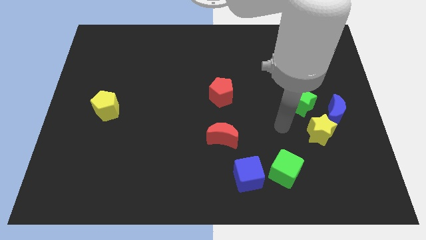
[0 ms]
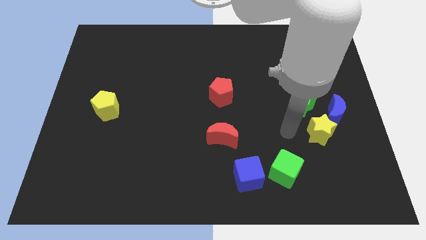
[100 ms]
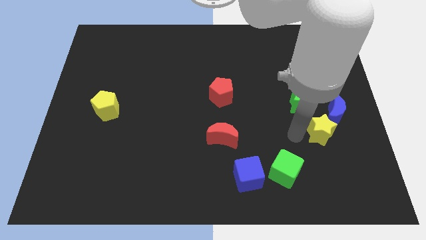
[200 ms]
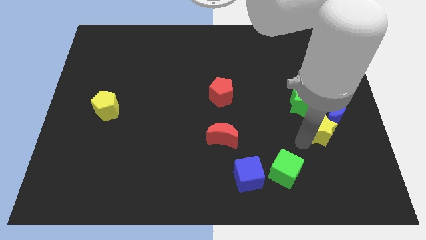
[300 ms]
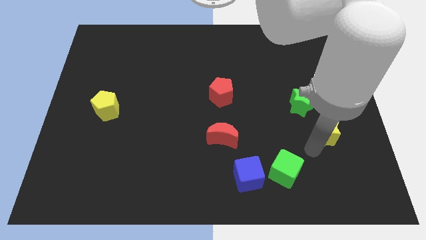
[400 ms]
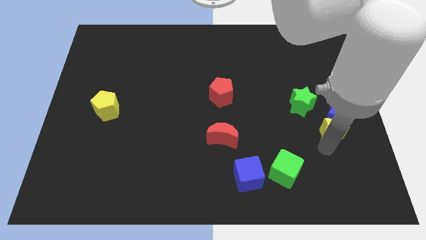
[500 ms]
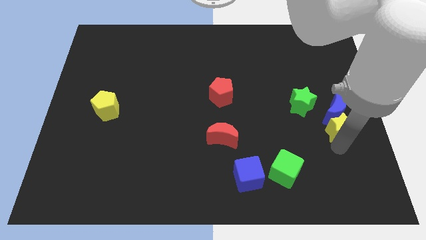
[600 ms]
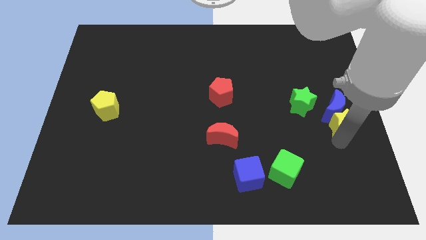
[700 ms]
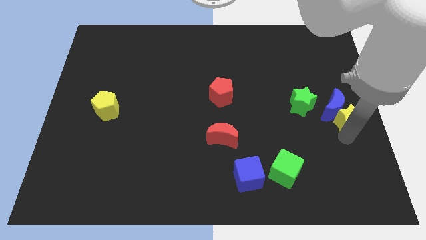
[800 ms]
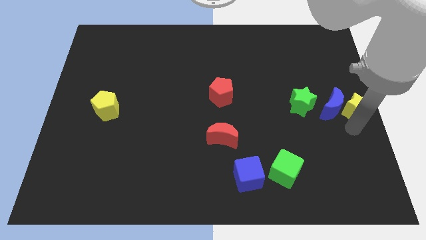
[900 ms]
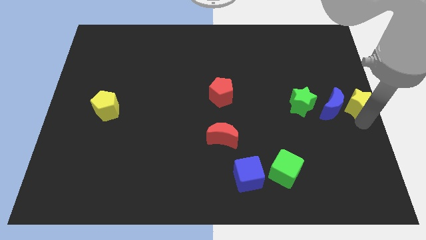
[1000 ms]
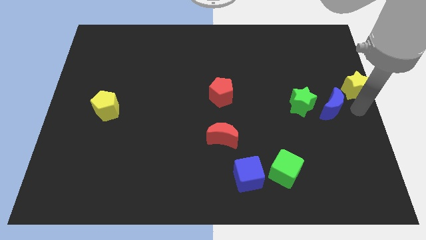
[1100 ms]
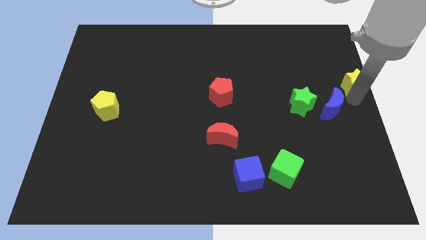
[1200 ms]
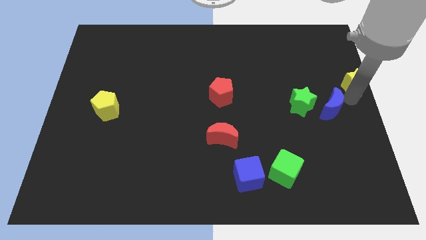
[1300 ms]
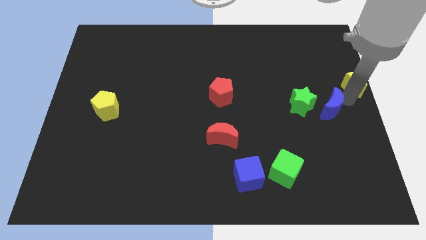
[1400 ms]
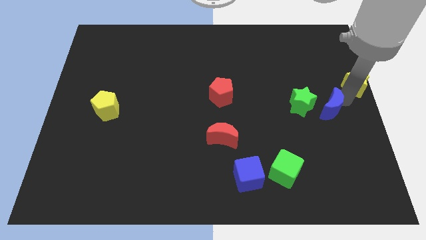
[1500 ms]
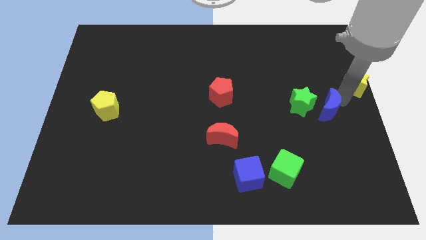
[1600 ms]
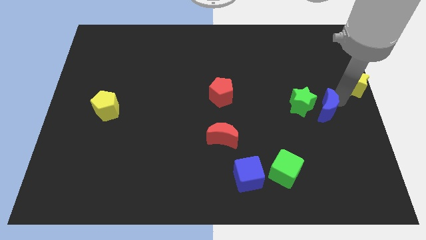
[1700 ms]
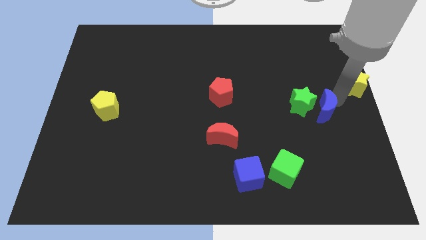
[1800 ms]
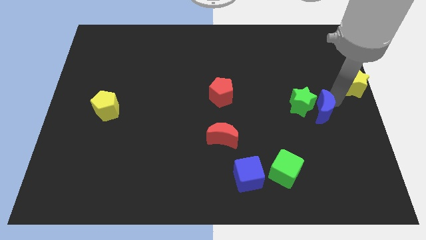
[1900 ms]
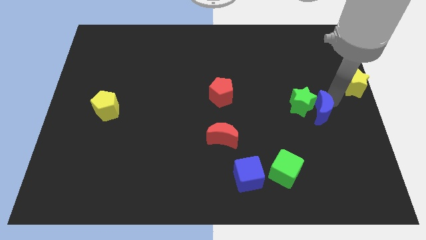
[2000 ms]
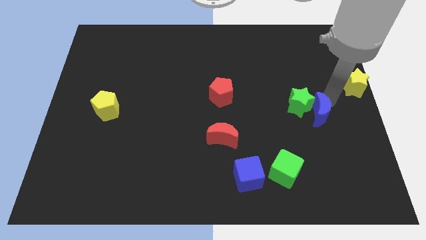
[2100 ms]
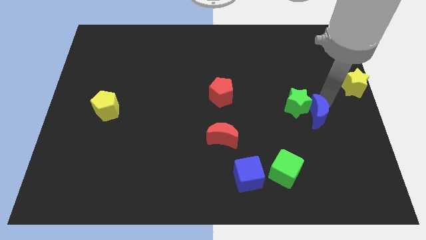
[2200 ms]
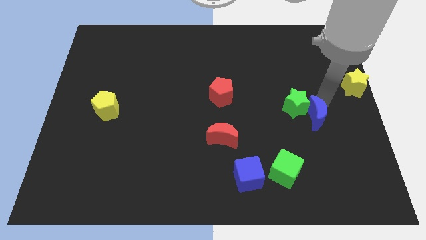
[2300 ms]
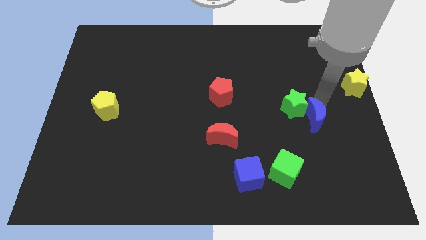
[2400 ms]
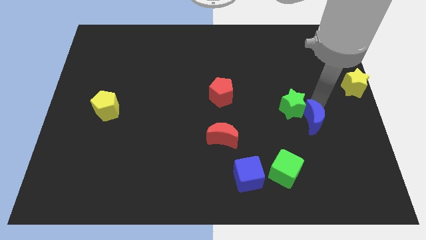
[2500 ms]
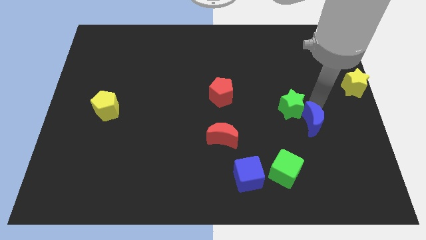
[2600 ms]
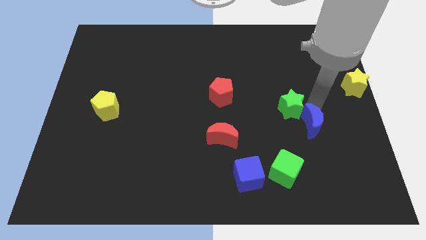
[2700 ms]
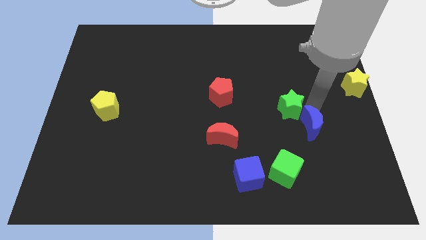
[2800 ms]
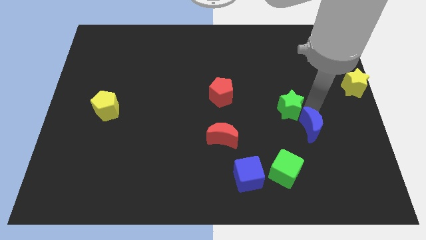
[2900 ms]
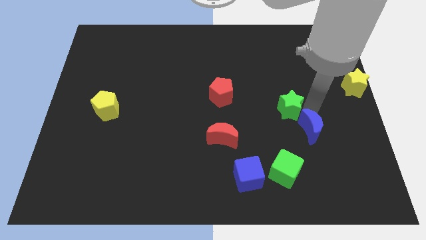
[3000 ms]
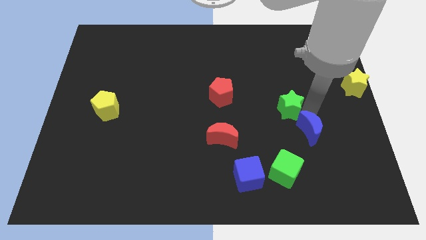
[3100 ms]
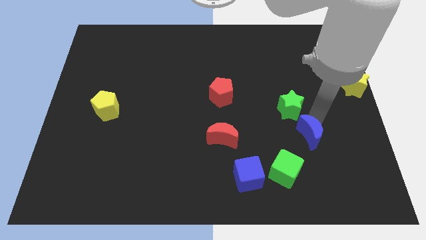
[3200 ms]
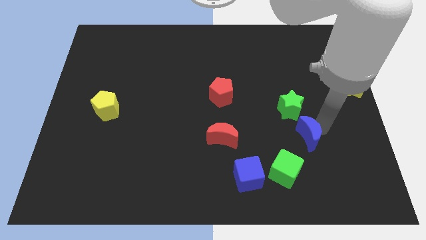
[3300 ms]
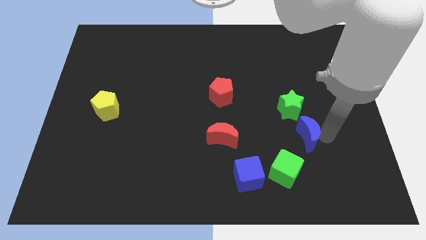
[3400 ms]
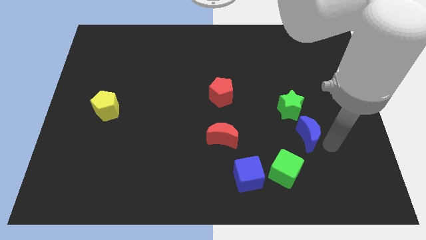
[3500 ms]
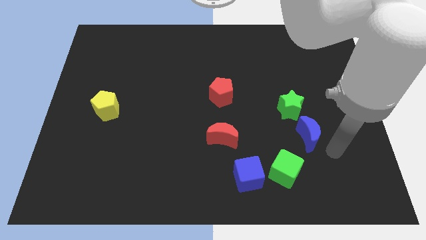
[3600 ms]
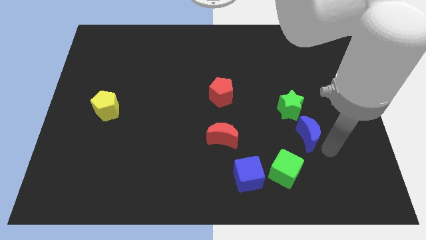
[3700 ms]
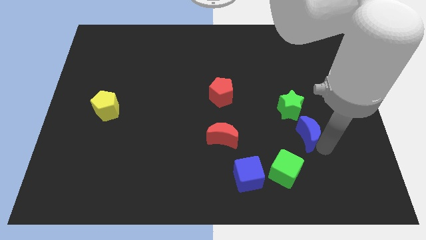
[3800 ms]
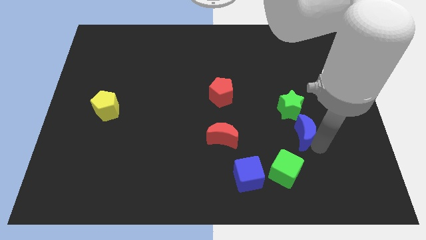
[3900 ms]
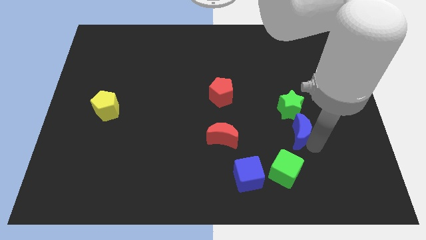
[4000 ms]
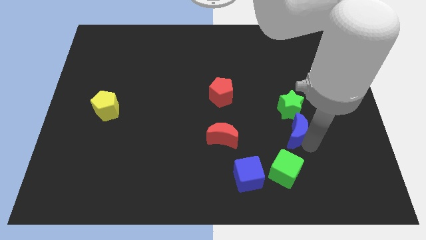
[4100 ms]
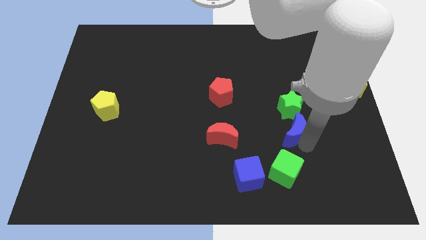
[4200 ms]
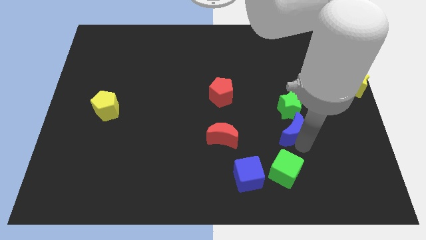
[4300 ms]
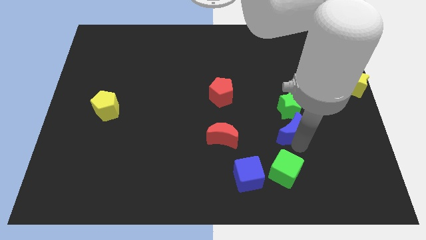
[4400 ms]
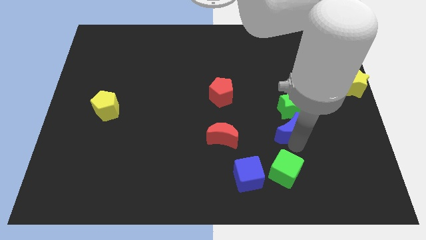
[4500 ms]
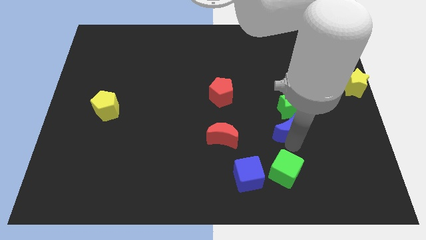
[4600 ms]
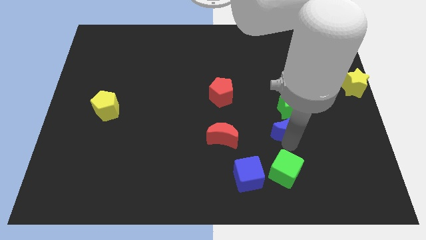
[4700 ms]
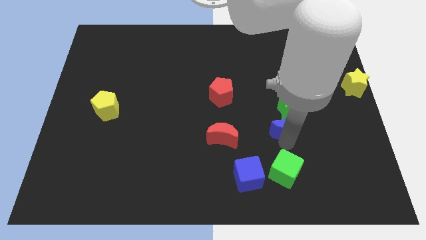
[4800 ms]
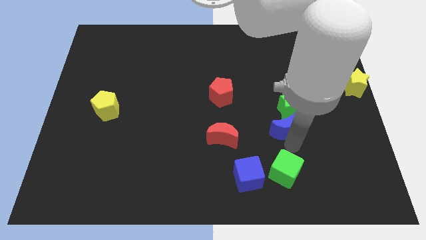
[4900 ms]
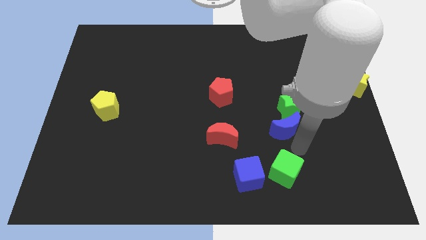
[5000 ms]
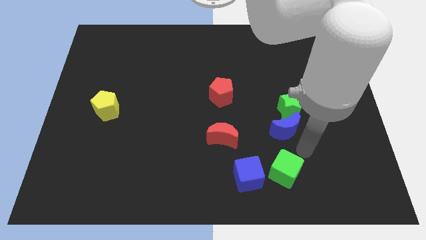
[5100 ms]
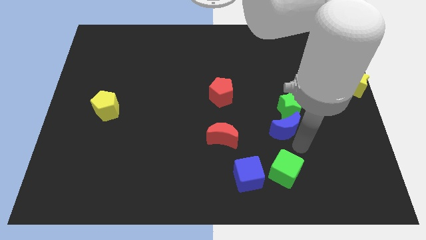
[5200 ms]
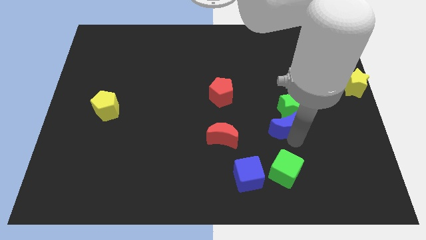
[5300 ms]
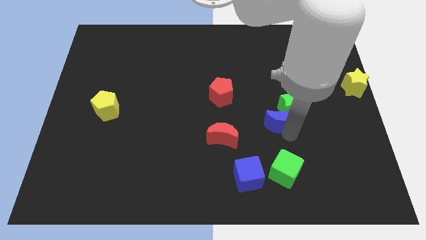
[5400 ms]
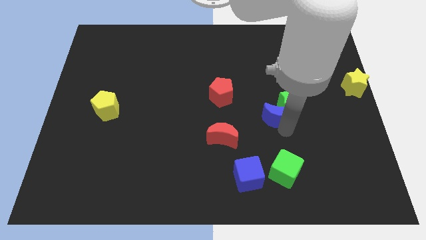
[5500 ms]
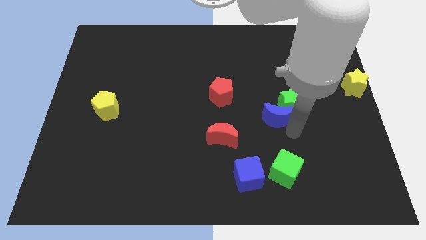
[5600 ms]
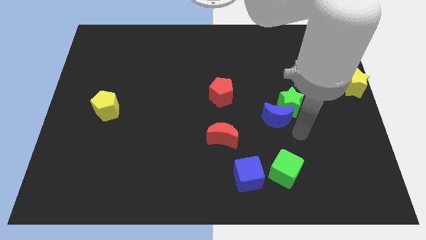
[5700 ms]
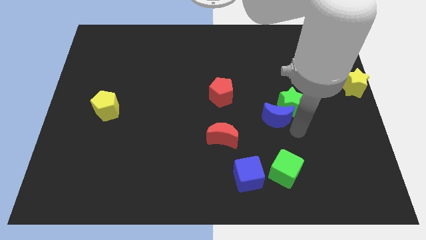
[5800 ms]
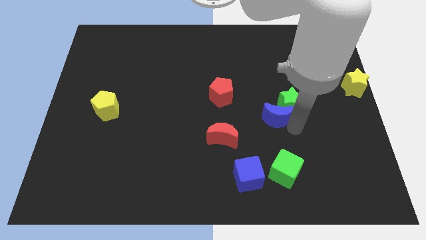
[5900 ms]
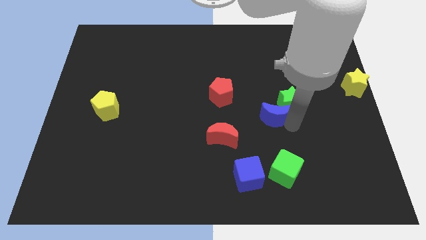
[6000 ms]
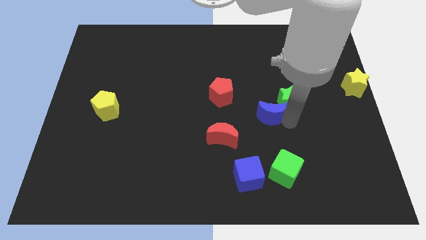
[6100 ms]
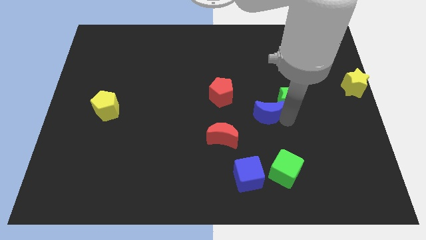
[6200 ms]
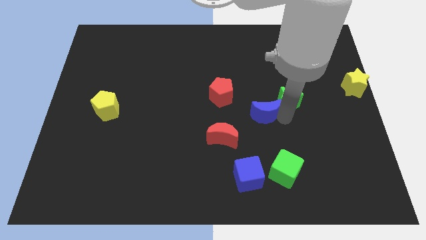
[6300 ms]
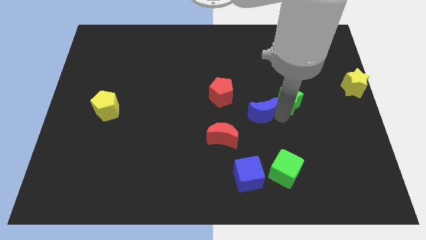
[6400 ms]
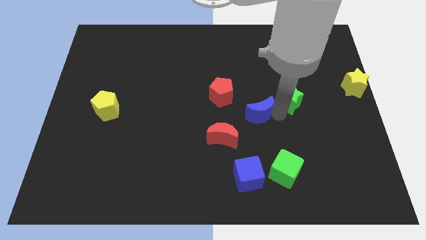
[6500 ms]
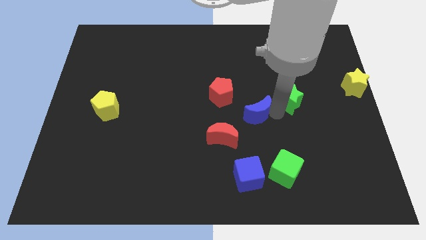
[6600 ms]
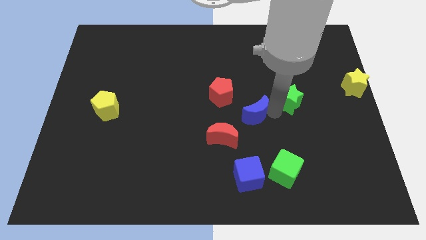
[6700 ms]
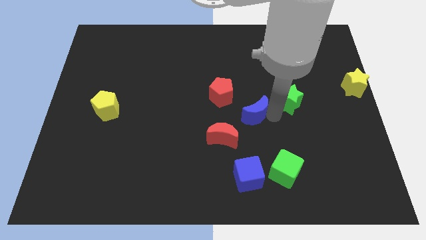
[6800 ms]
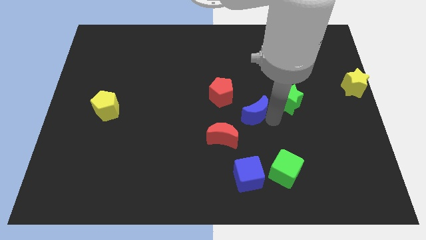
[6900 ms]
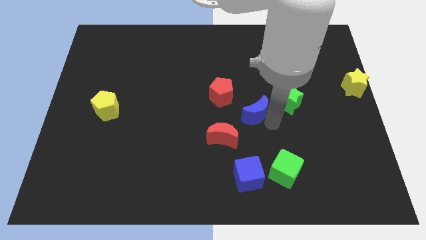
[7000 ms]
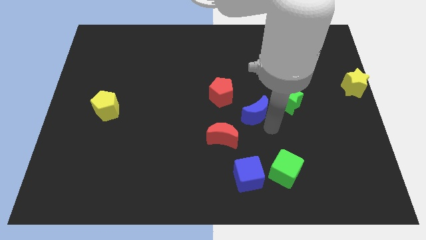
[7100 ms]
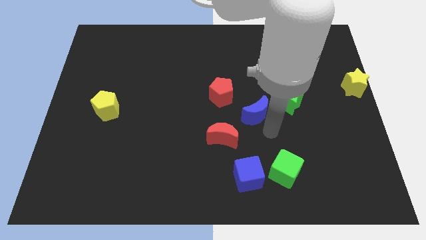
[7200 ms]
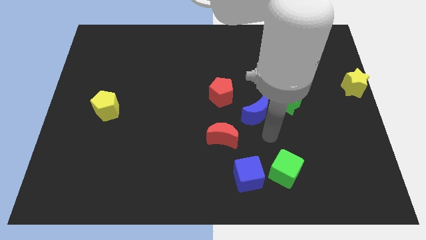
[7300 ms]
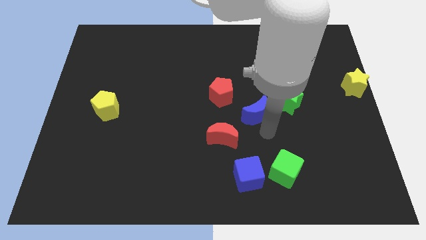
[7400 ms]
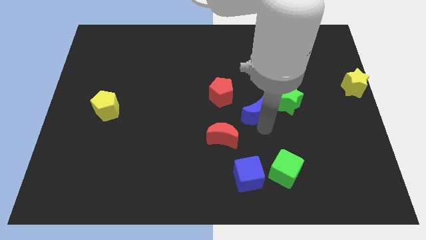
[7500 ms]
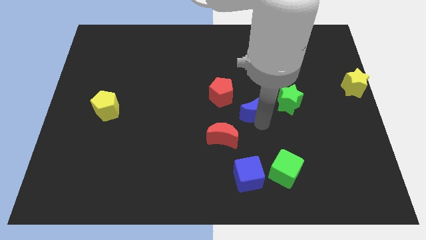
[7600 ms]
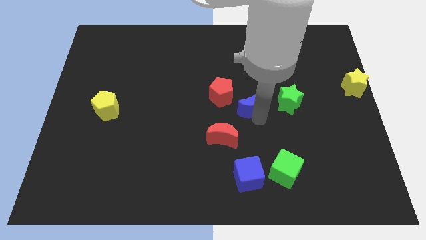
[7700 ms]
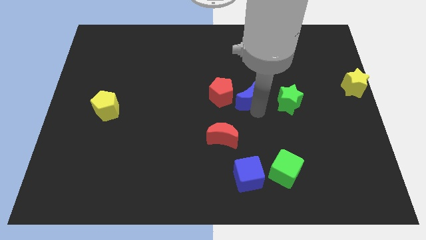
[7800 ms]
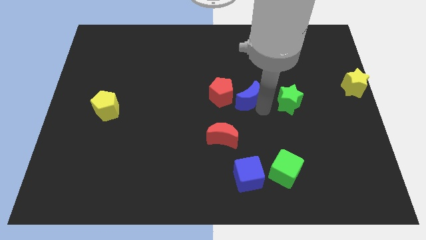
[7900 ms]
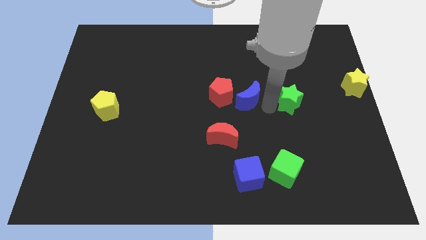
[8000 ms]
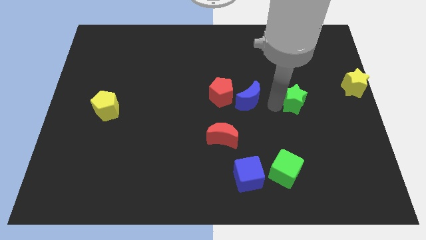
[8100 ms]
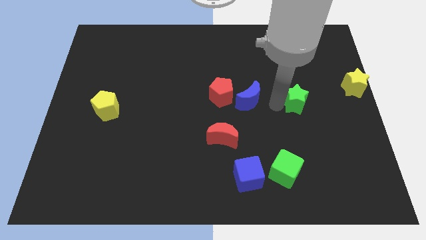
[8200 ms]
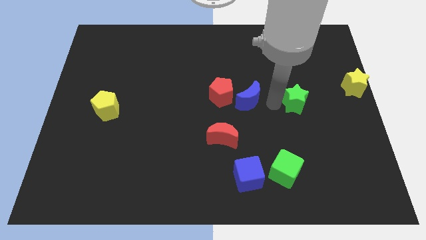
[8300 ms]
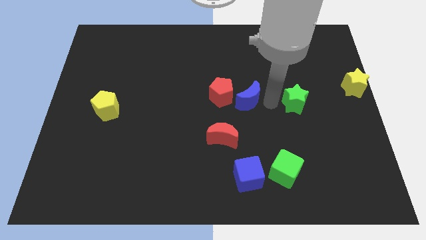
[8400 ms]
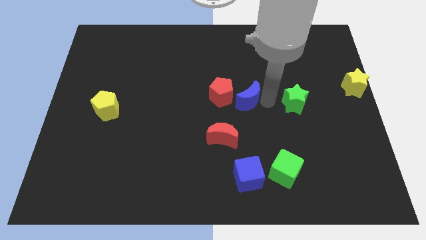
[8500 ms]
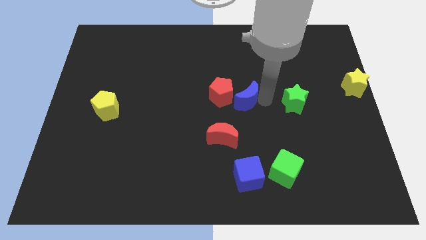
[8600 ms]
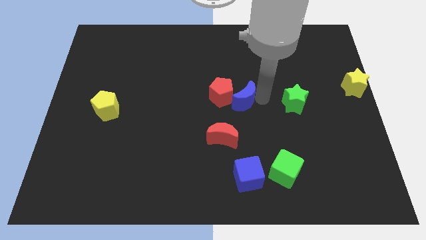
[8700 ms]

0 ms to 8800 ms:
put the blue moon close to the red pentagon
